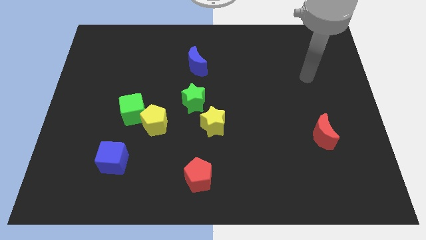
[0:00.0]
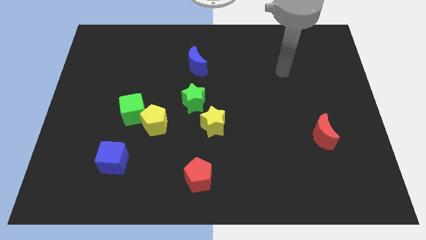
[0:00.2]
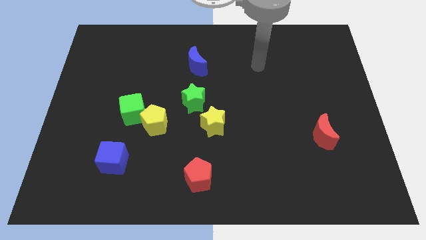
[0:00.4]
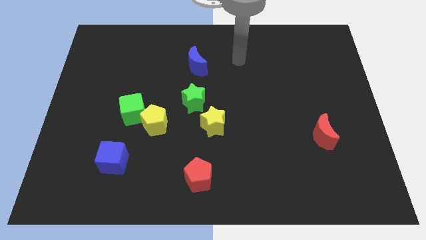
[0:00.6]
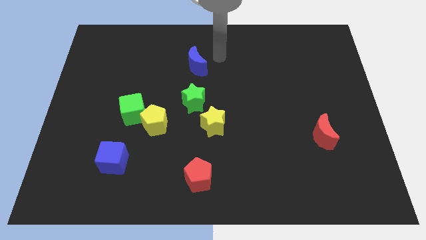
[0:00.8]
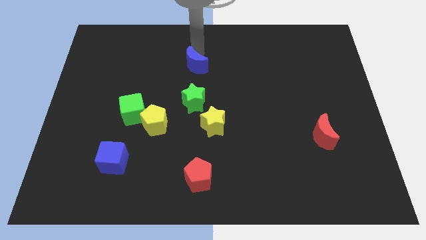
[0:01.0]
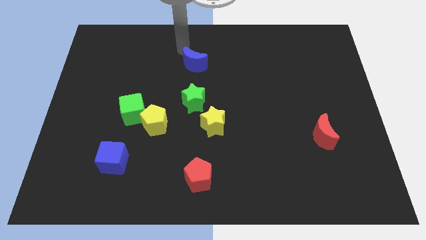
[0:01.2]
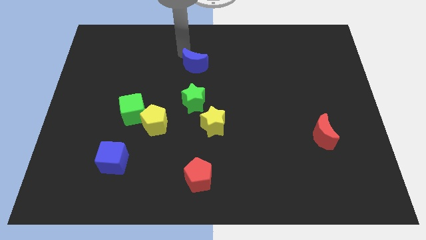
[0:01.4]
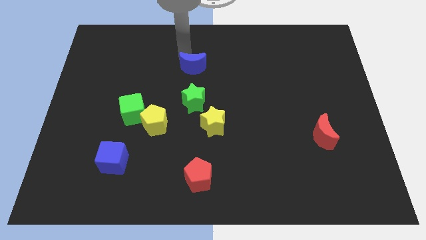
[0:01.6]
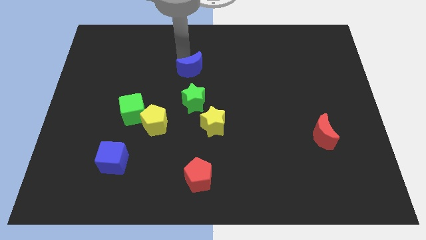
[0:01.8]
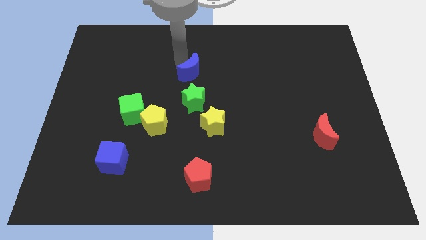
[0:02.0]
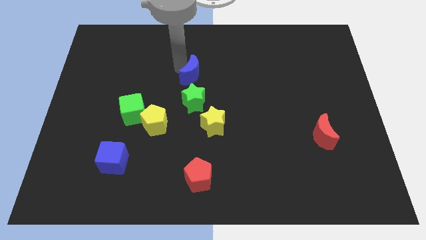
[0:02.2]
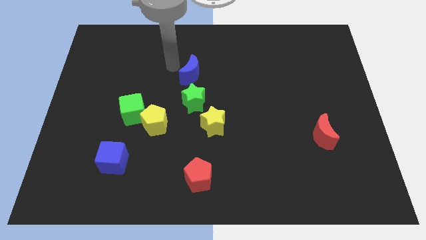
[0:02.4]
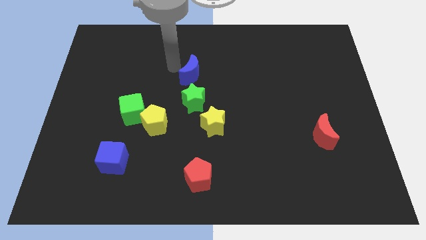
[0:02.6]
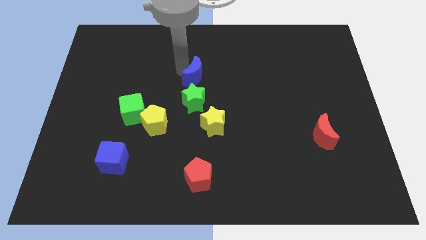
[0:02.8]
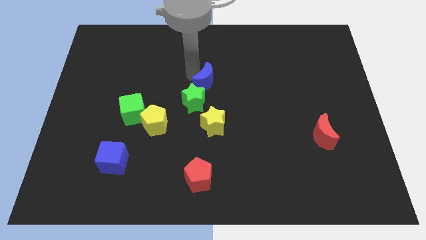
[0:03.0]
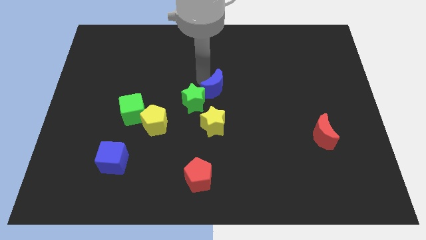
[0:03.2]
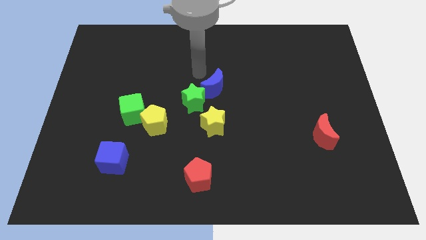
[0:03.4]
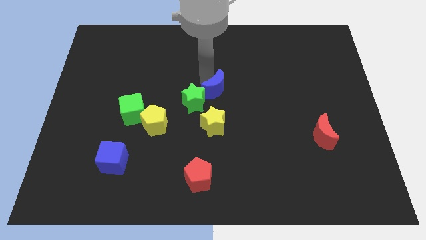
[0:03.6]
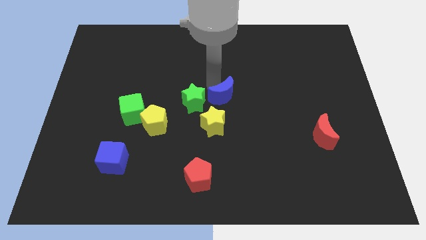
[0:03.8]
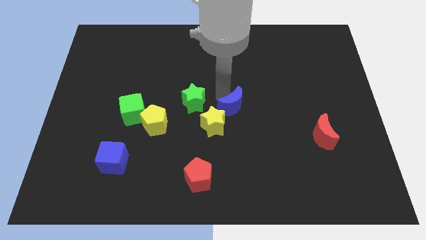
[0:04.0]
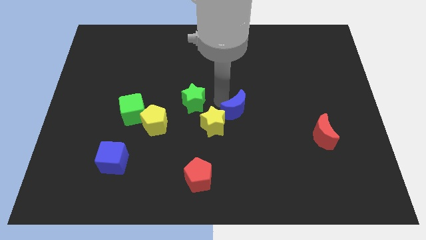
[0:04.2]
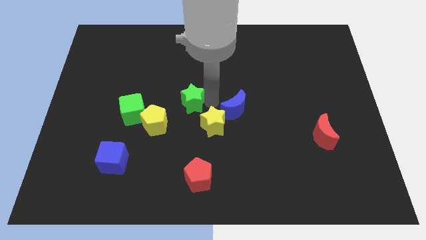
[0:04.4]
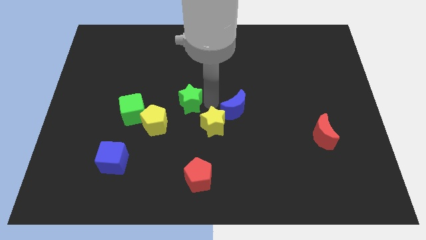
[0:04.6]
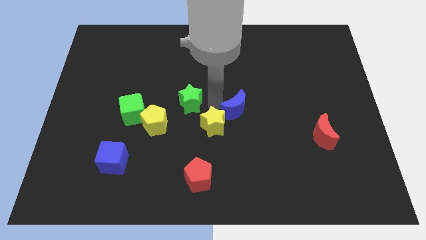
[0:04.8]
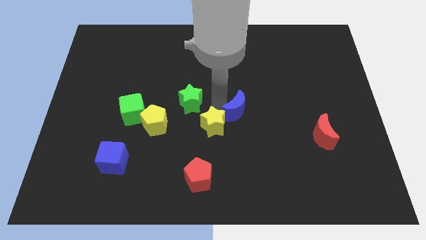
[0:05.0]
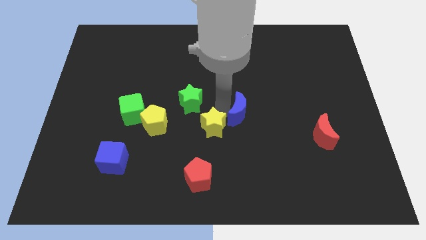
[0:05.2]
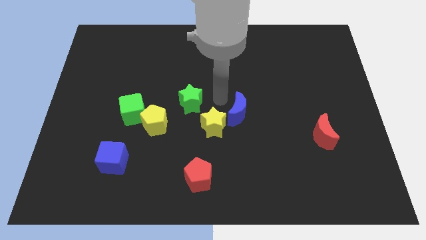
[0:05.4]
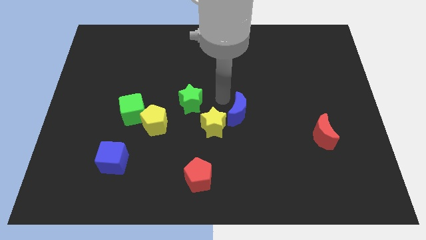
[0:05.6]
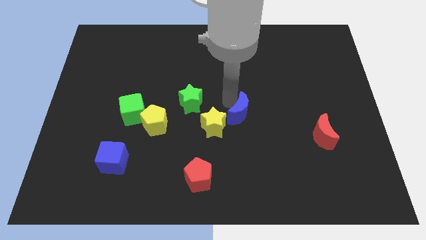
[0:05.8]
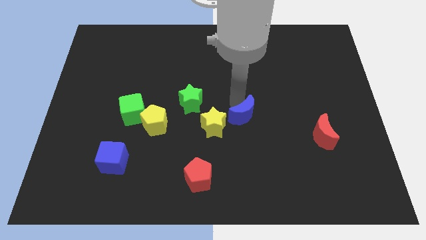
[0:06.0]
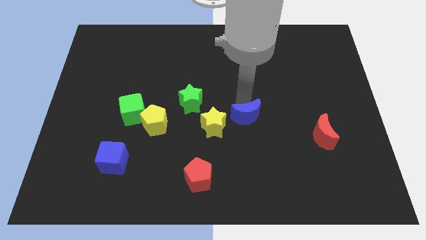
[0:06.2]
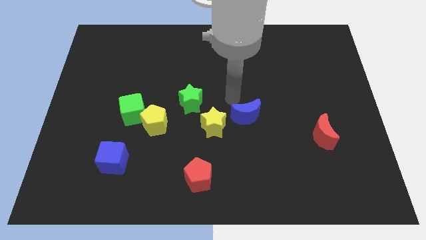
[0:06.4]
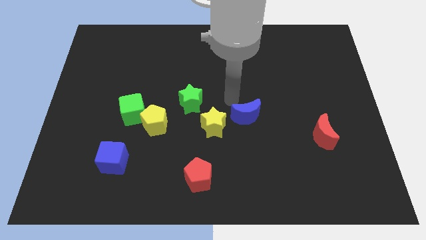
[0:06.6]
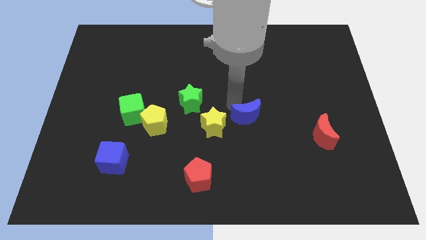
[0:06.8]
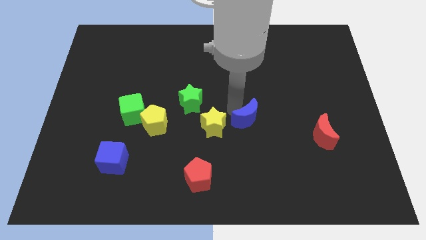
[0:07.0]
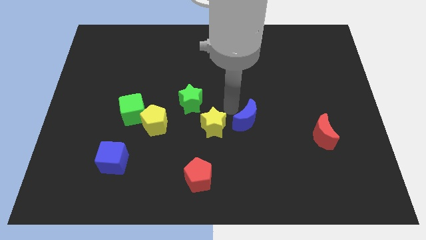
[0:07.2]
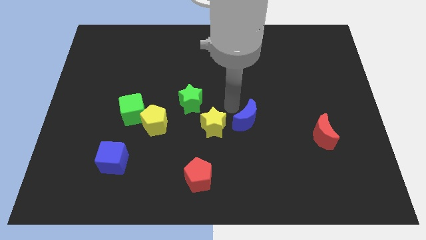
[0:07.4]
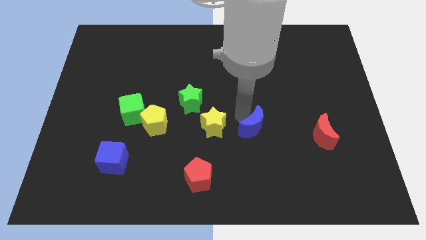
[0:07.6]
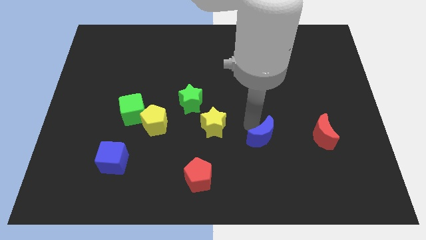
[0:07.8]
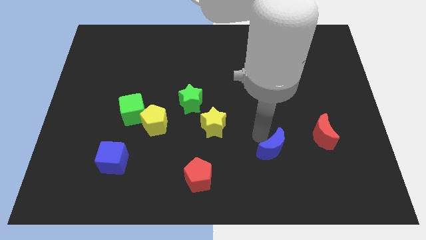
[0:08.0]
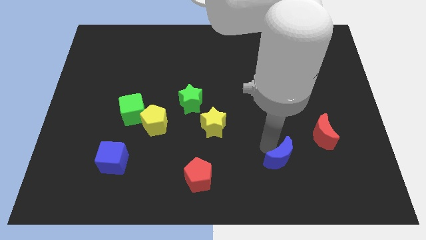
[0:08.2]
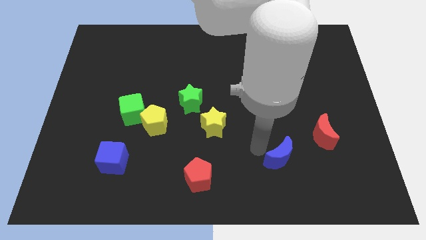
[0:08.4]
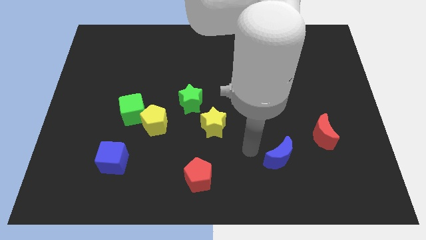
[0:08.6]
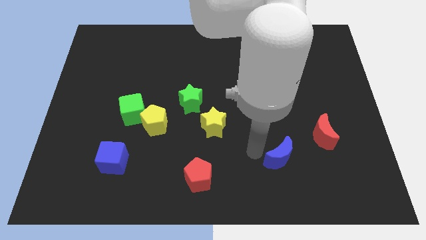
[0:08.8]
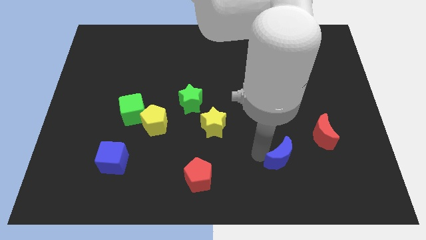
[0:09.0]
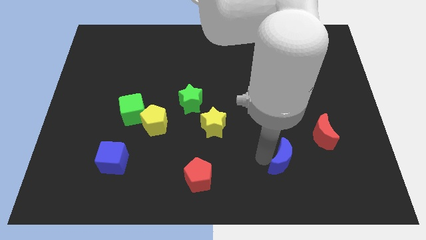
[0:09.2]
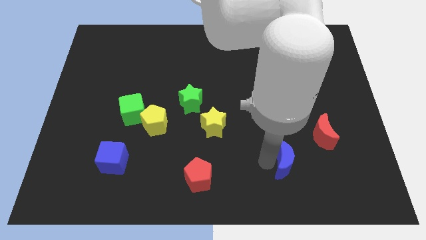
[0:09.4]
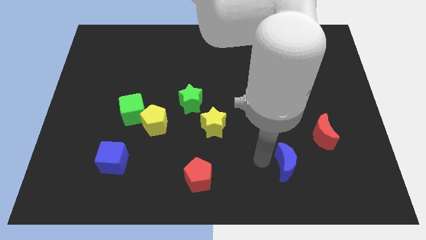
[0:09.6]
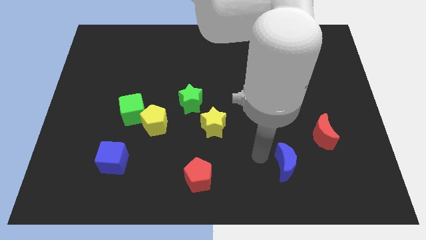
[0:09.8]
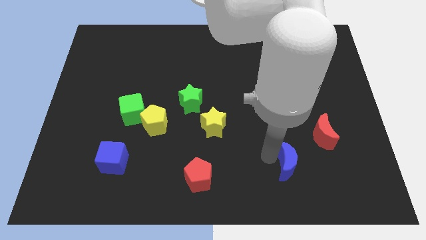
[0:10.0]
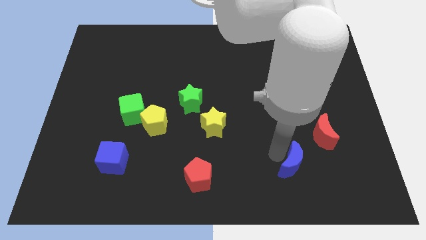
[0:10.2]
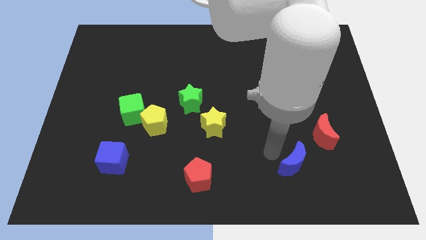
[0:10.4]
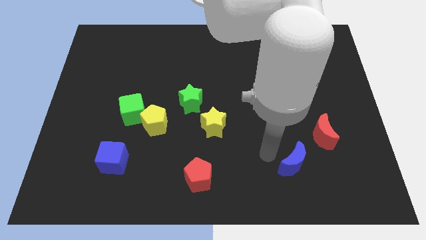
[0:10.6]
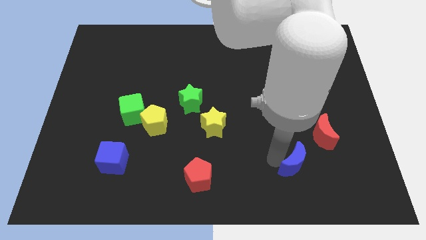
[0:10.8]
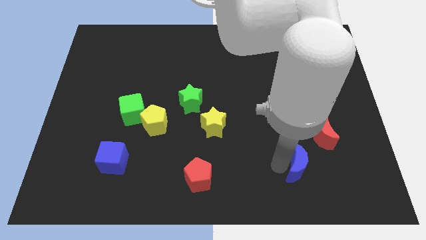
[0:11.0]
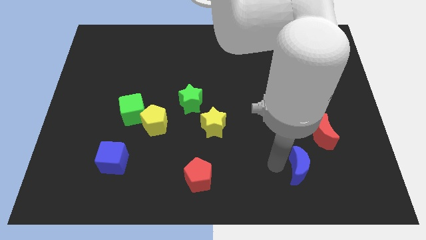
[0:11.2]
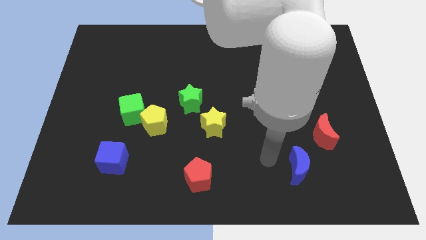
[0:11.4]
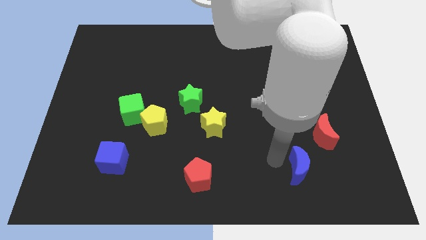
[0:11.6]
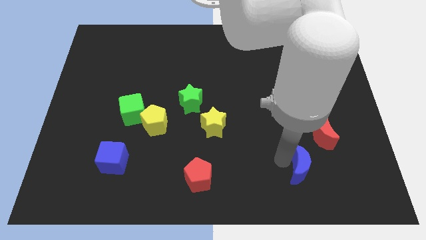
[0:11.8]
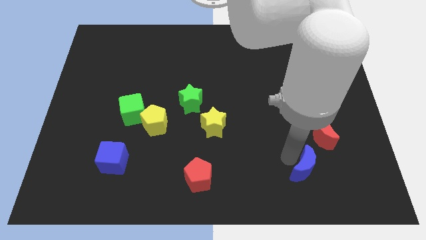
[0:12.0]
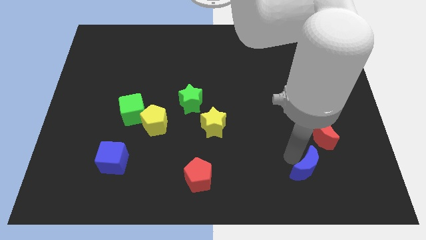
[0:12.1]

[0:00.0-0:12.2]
put the blue moon to the bottom of the red moon

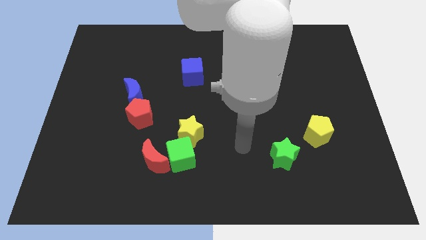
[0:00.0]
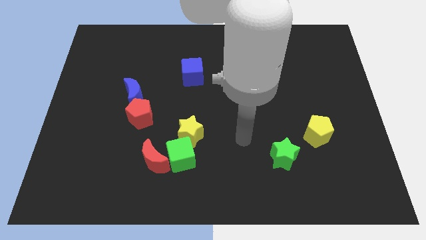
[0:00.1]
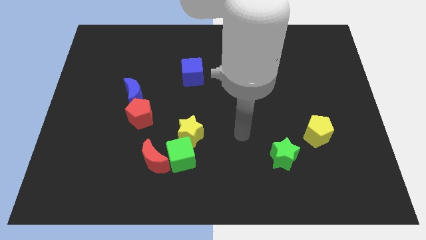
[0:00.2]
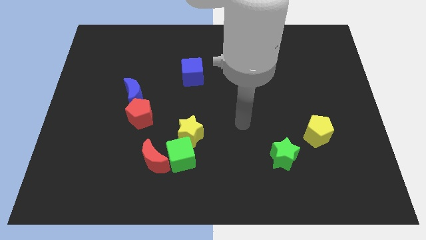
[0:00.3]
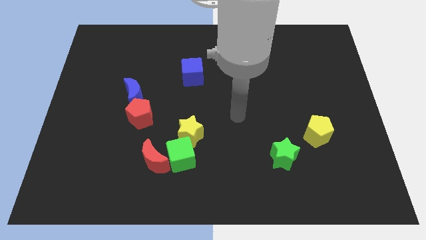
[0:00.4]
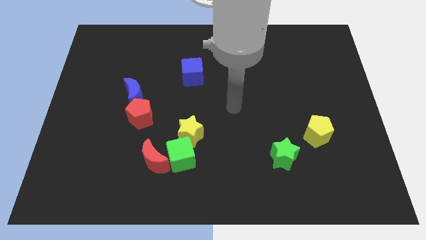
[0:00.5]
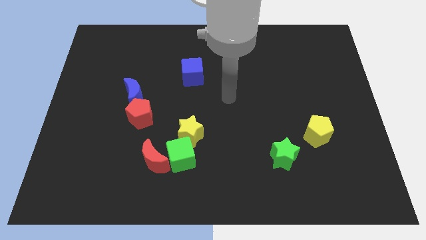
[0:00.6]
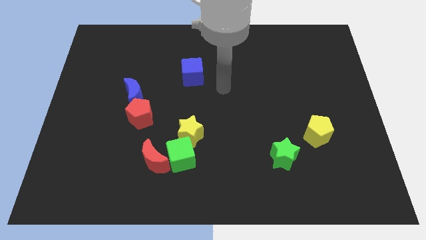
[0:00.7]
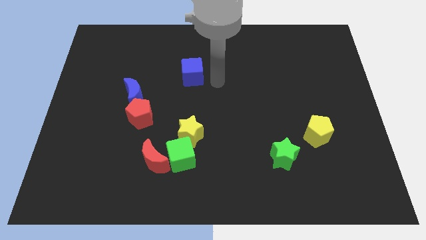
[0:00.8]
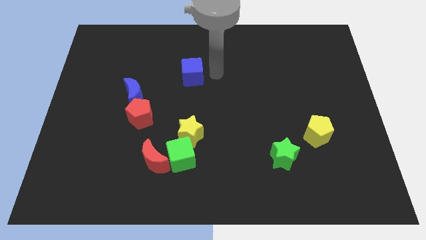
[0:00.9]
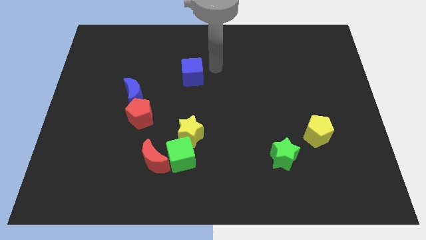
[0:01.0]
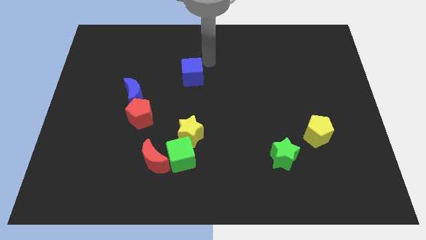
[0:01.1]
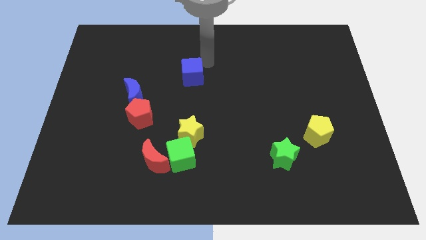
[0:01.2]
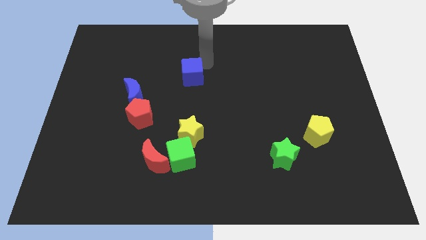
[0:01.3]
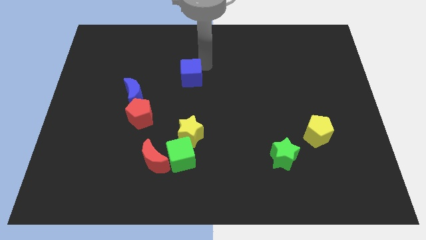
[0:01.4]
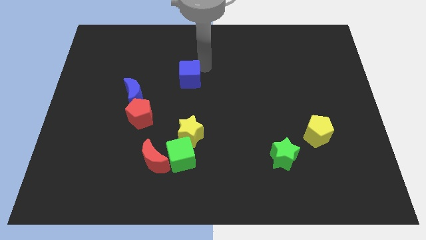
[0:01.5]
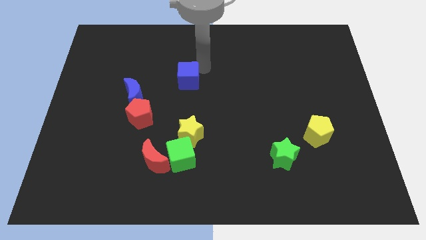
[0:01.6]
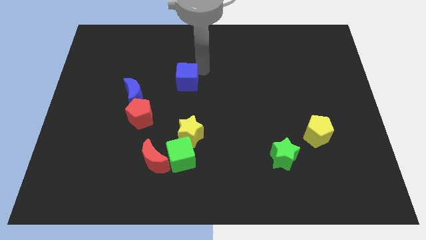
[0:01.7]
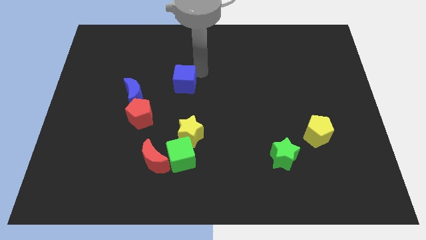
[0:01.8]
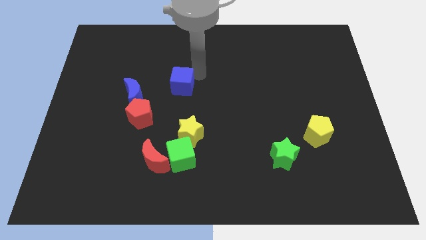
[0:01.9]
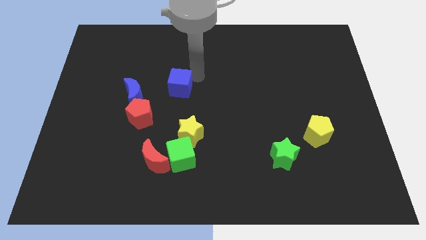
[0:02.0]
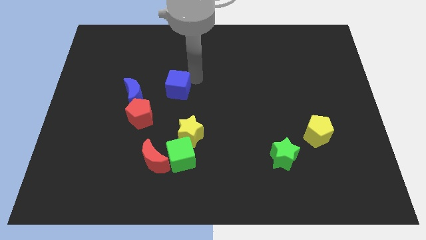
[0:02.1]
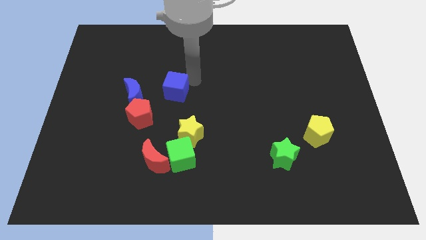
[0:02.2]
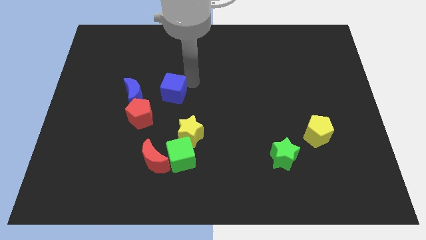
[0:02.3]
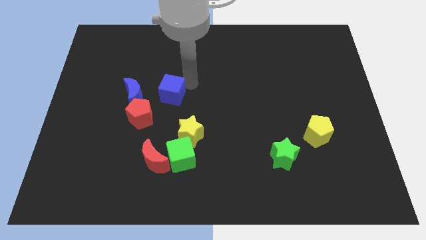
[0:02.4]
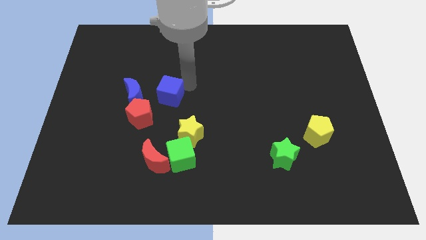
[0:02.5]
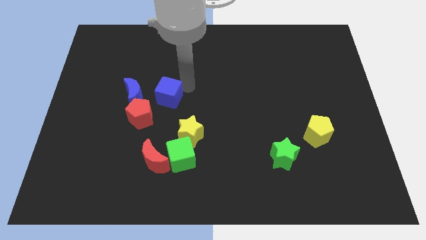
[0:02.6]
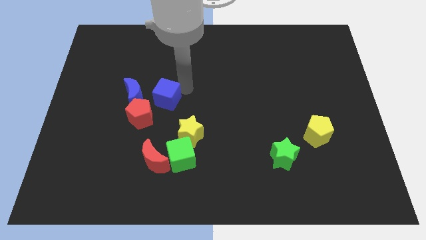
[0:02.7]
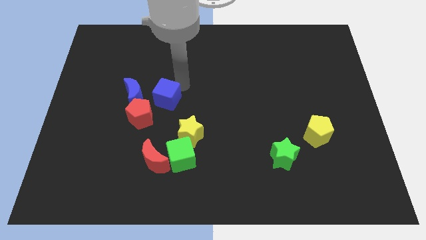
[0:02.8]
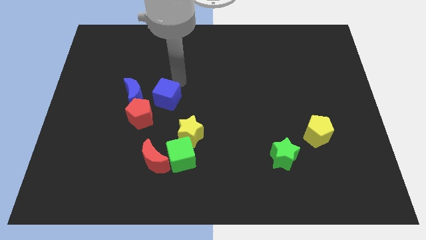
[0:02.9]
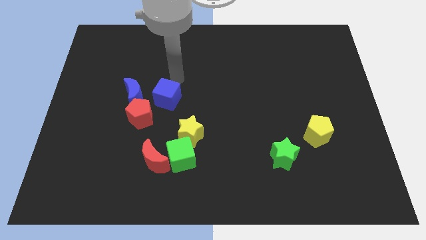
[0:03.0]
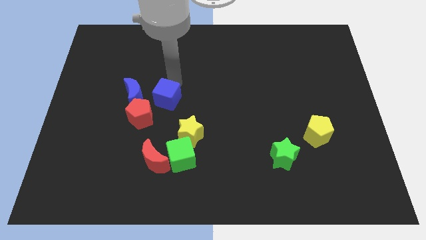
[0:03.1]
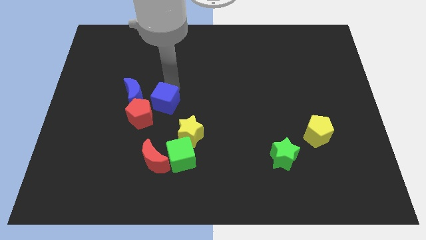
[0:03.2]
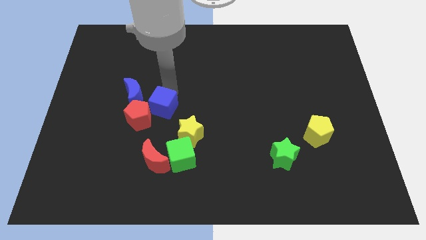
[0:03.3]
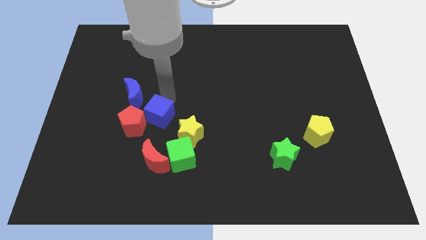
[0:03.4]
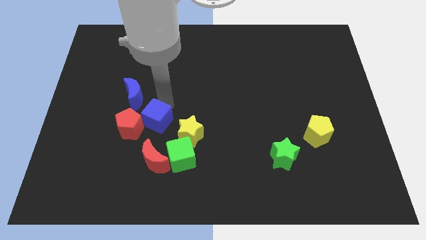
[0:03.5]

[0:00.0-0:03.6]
put the blue cube left of the yellow star
